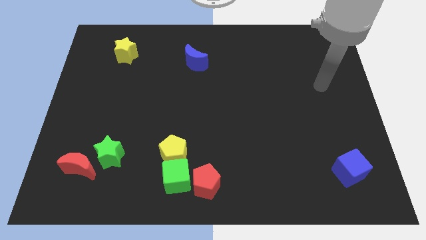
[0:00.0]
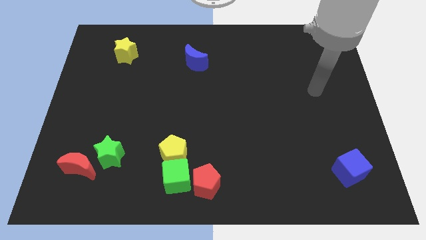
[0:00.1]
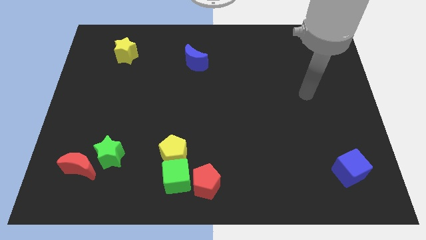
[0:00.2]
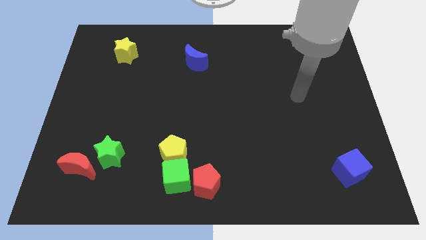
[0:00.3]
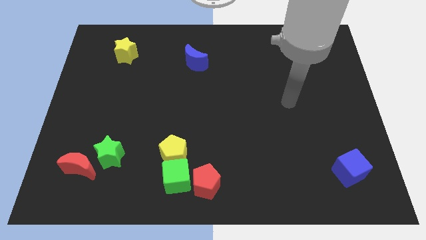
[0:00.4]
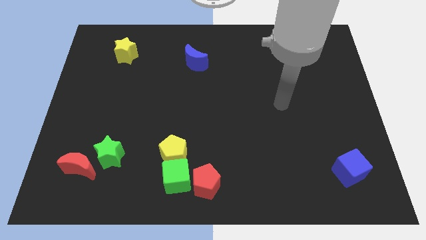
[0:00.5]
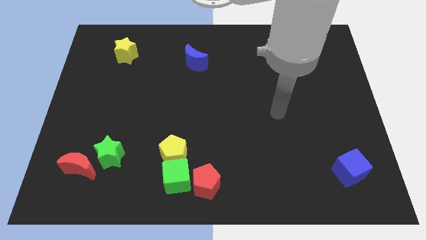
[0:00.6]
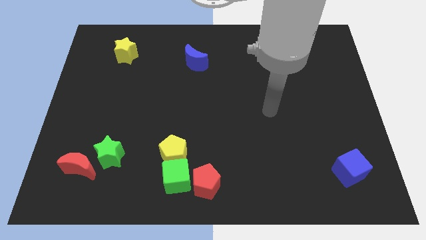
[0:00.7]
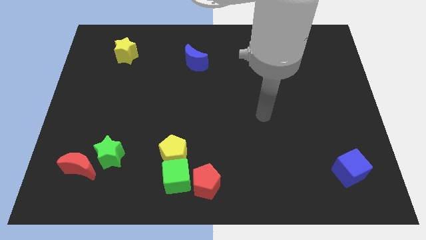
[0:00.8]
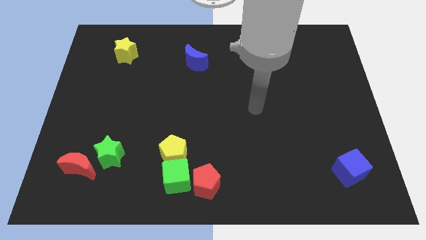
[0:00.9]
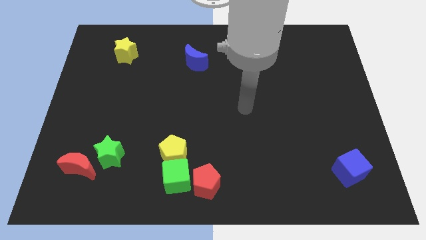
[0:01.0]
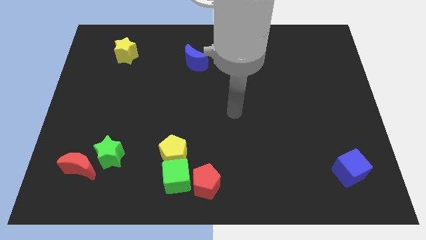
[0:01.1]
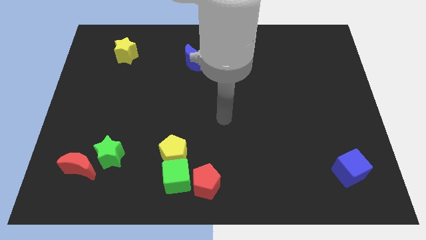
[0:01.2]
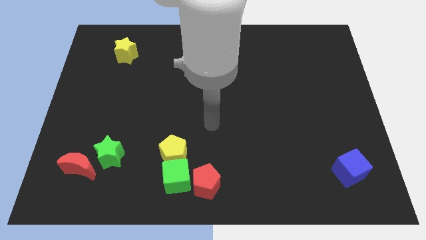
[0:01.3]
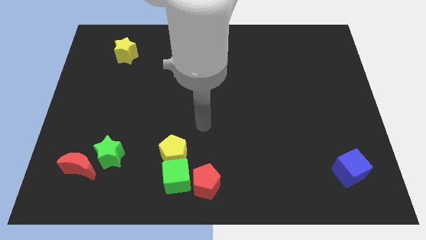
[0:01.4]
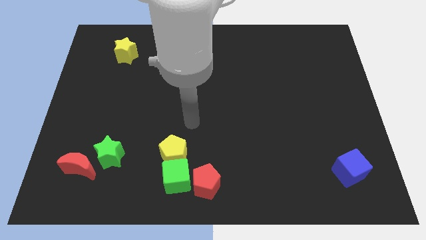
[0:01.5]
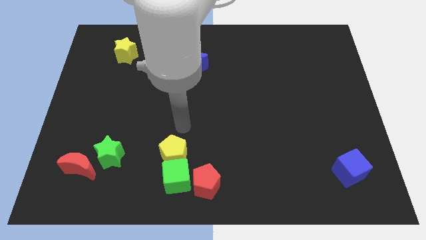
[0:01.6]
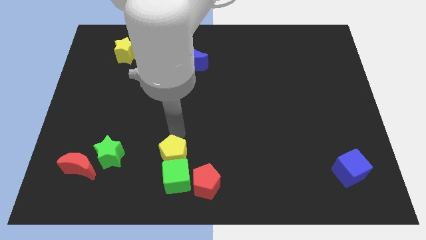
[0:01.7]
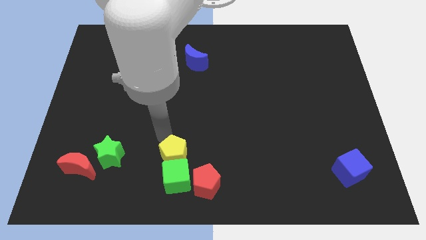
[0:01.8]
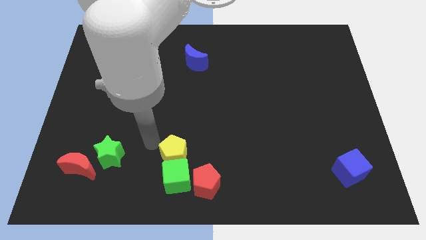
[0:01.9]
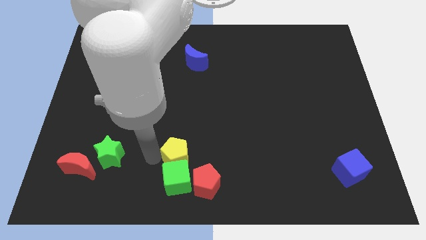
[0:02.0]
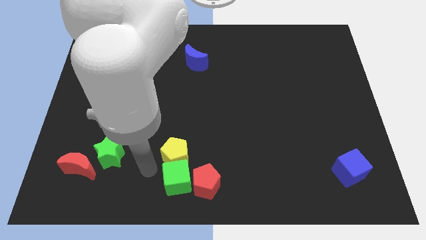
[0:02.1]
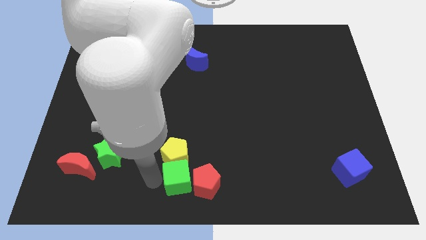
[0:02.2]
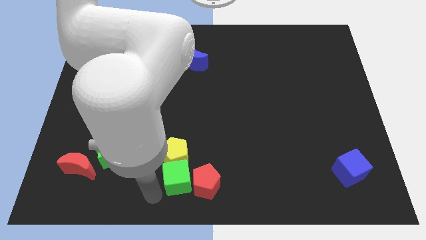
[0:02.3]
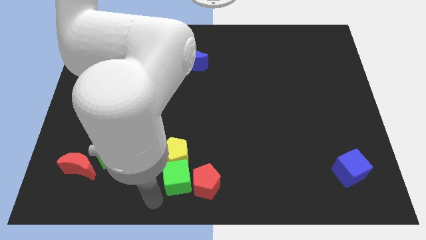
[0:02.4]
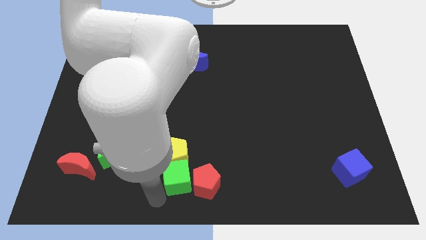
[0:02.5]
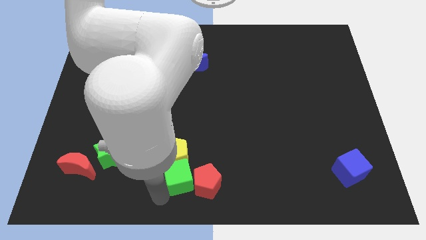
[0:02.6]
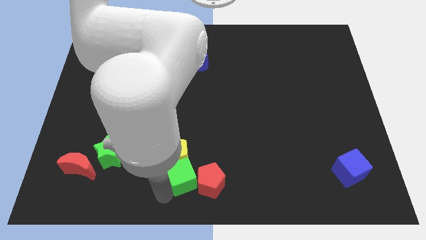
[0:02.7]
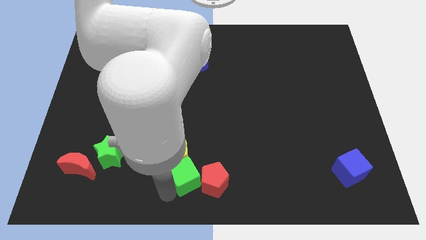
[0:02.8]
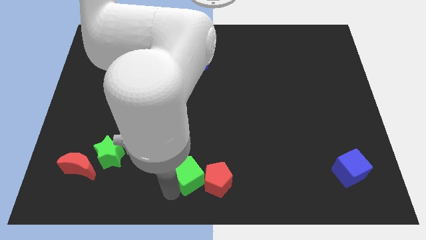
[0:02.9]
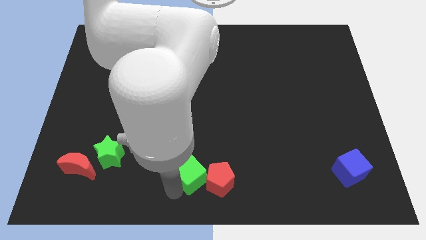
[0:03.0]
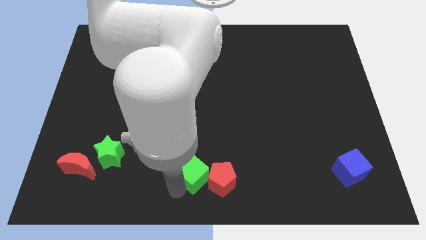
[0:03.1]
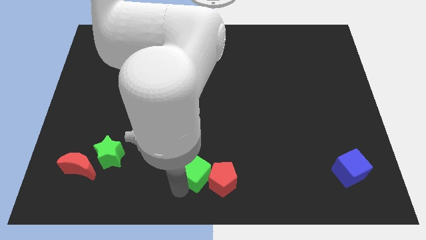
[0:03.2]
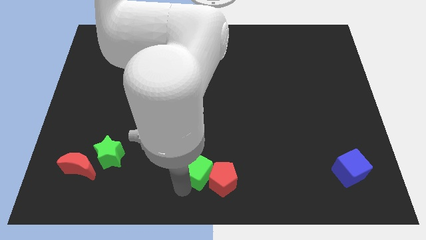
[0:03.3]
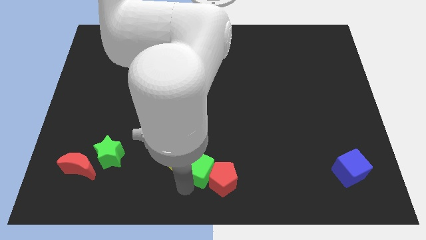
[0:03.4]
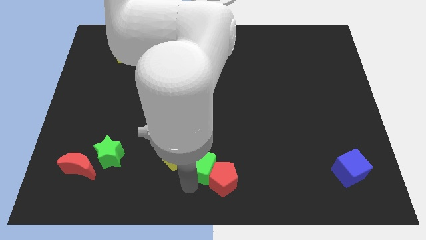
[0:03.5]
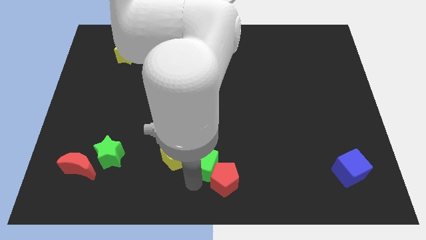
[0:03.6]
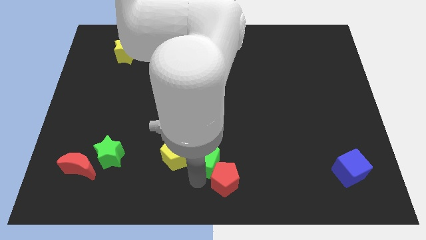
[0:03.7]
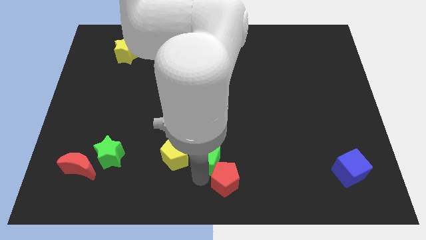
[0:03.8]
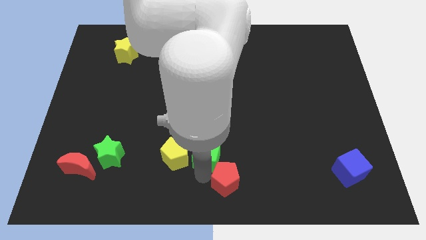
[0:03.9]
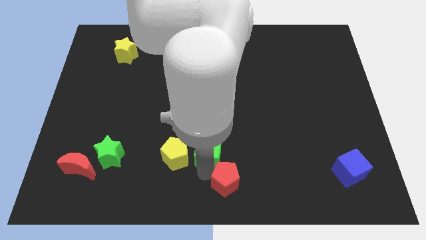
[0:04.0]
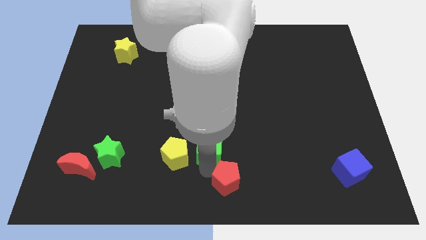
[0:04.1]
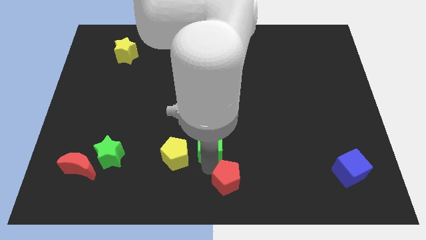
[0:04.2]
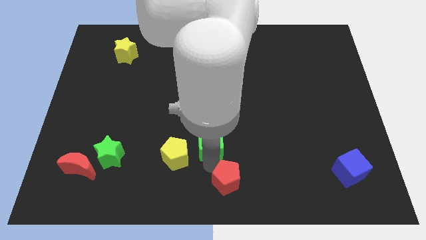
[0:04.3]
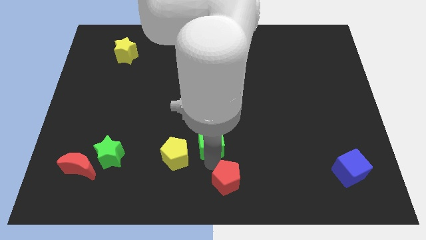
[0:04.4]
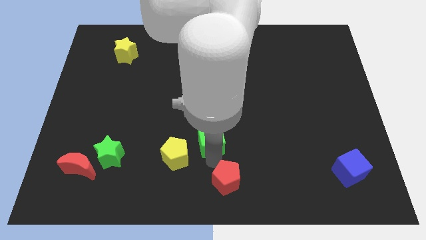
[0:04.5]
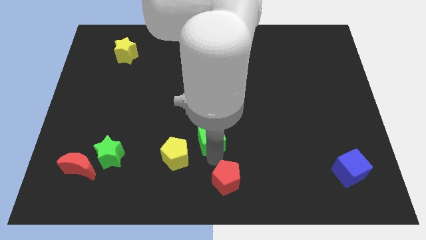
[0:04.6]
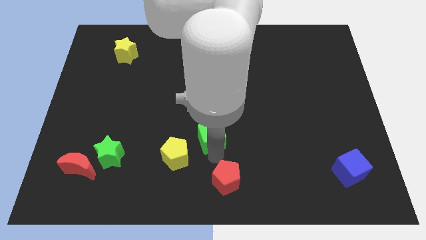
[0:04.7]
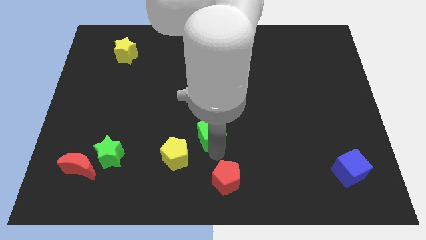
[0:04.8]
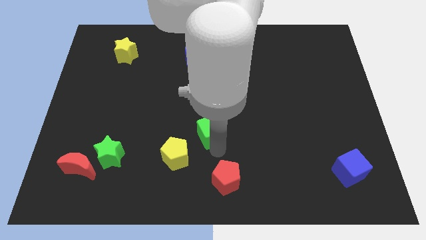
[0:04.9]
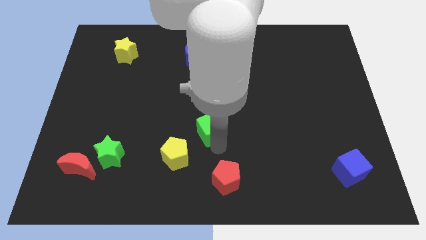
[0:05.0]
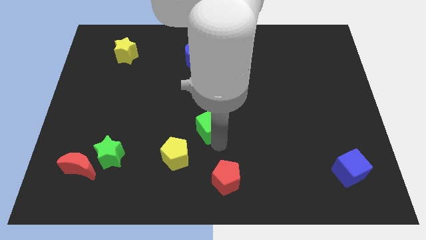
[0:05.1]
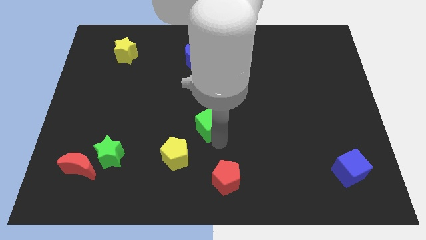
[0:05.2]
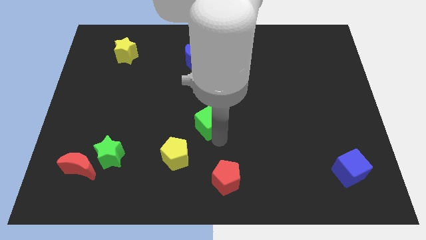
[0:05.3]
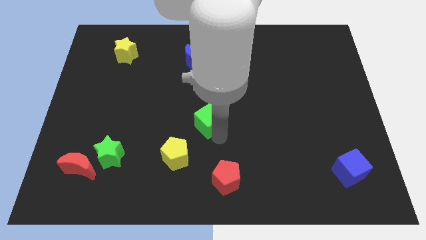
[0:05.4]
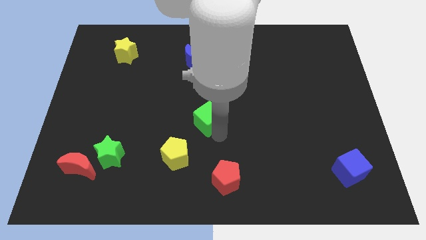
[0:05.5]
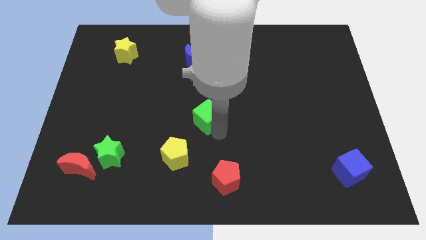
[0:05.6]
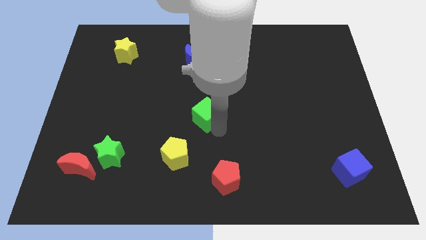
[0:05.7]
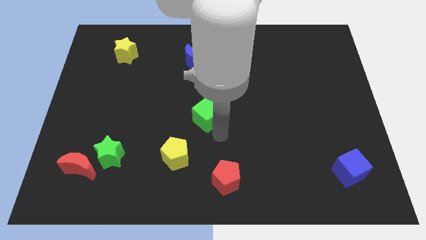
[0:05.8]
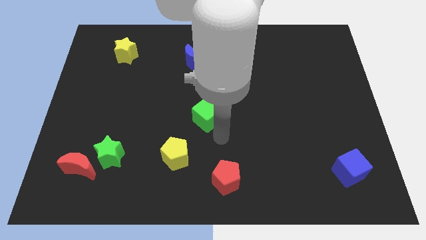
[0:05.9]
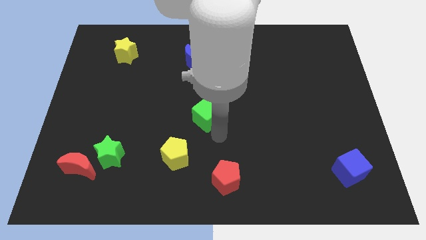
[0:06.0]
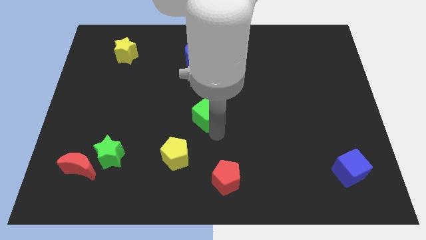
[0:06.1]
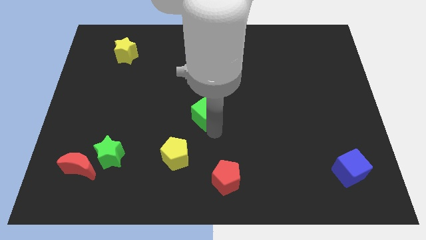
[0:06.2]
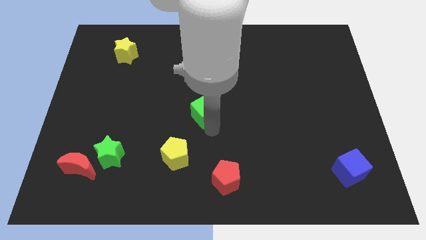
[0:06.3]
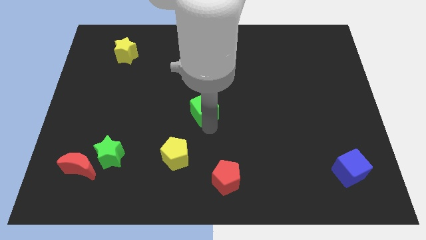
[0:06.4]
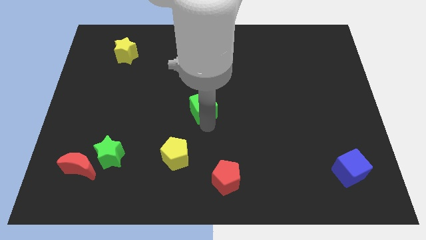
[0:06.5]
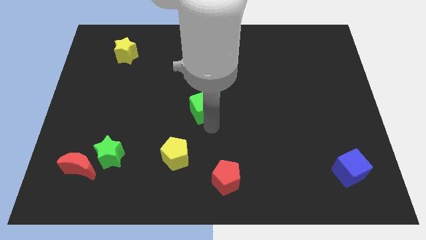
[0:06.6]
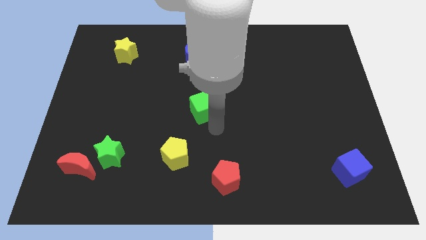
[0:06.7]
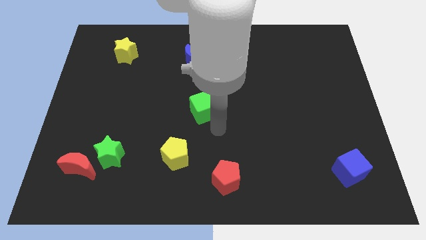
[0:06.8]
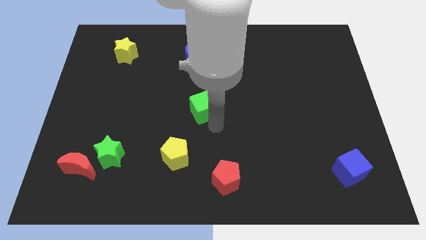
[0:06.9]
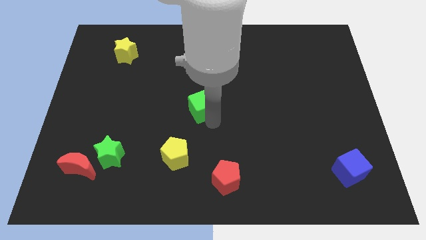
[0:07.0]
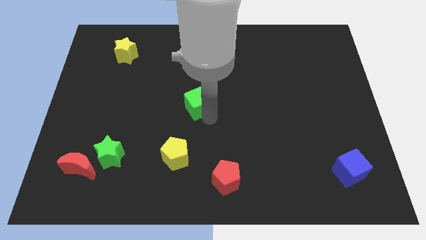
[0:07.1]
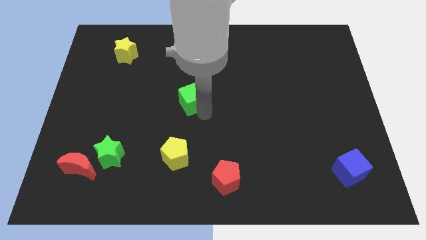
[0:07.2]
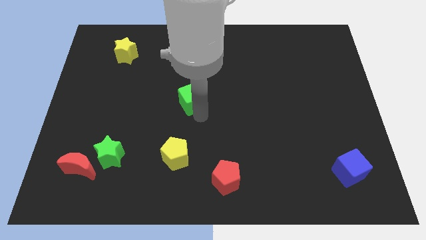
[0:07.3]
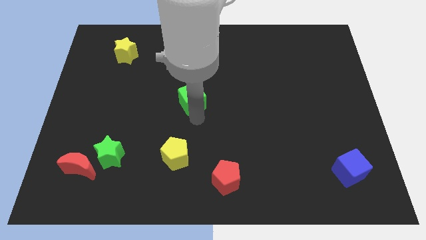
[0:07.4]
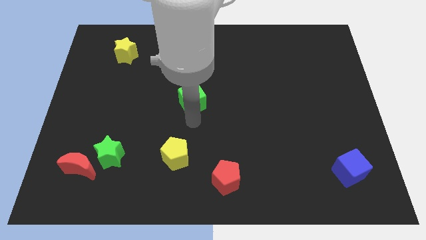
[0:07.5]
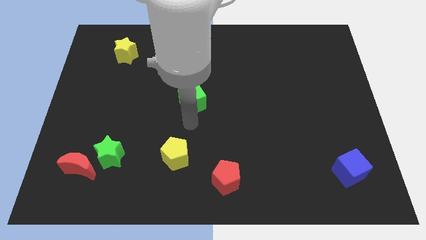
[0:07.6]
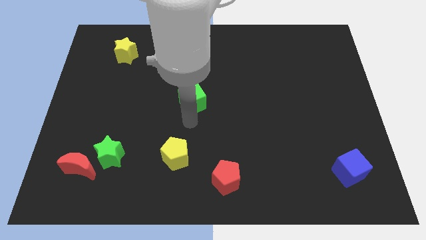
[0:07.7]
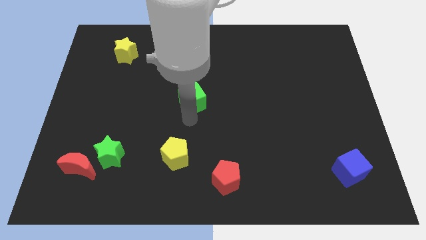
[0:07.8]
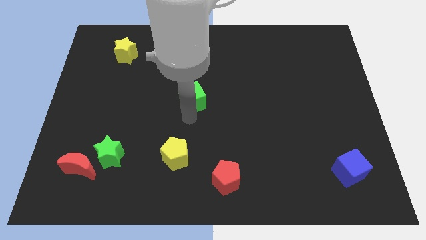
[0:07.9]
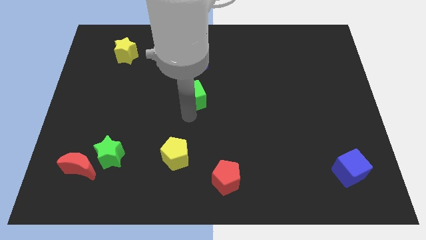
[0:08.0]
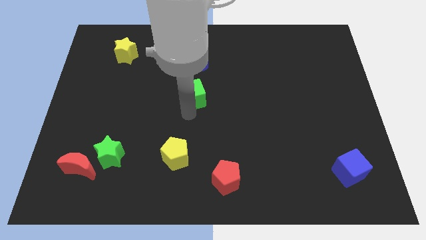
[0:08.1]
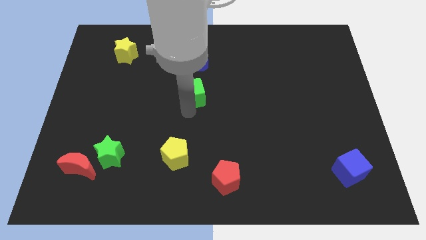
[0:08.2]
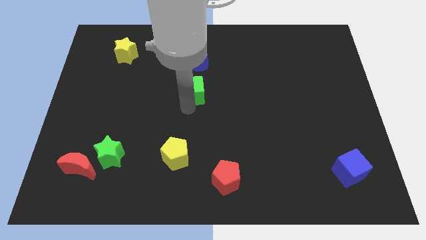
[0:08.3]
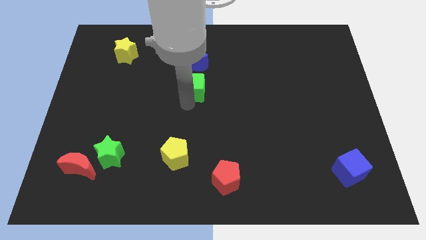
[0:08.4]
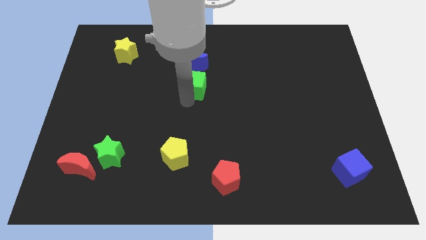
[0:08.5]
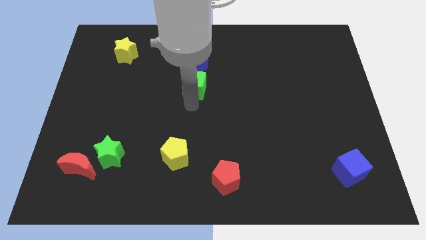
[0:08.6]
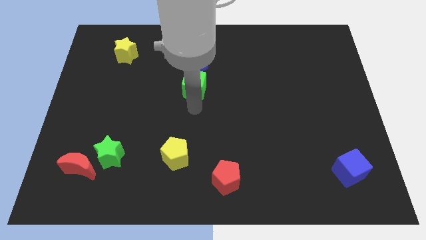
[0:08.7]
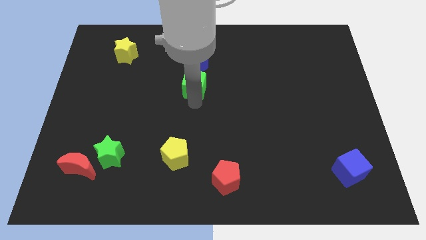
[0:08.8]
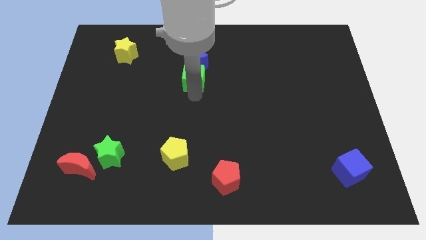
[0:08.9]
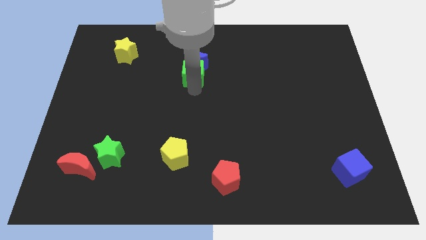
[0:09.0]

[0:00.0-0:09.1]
slide the green cube next to the blue moon
